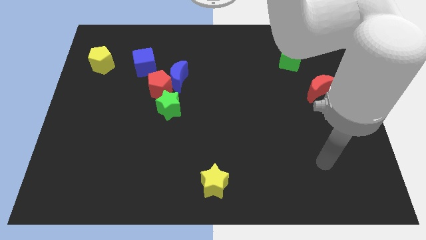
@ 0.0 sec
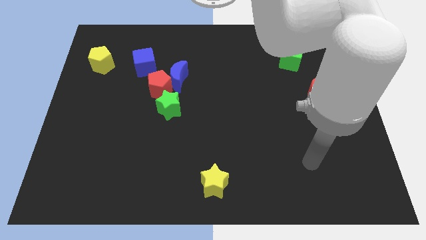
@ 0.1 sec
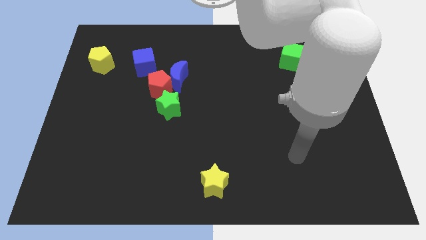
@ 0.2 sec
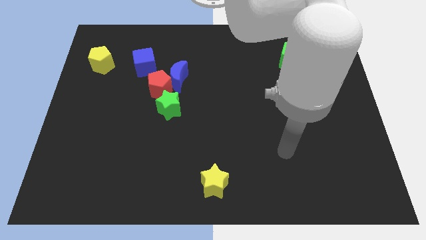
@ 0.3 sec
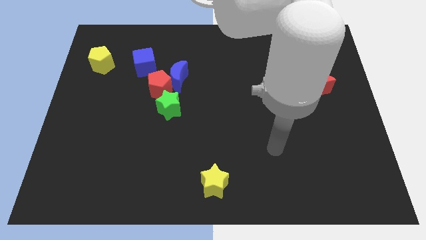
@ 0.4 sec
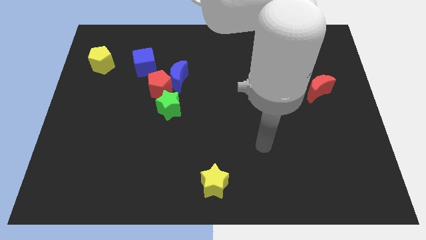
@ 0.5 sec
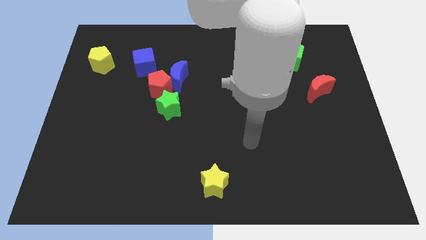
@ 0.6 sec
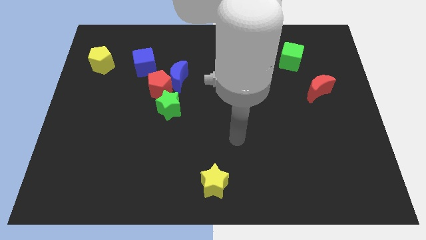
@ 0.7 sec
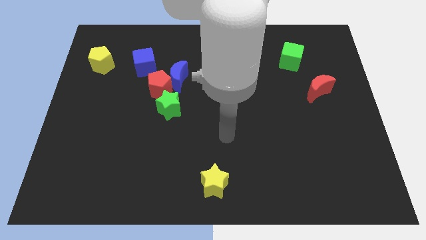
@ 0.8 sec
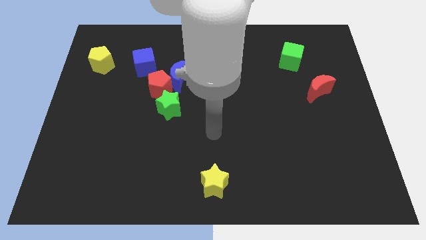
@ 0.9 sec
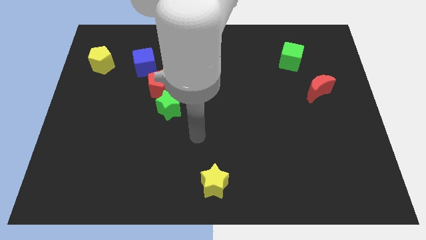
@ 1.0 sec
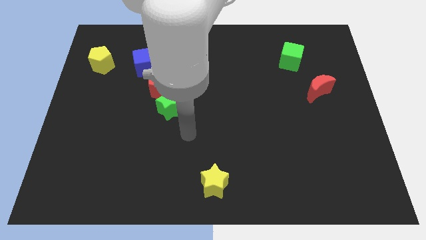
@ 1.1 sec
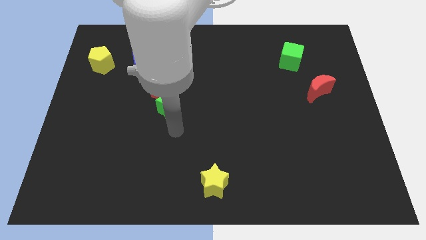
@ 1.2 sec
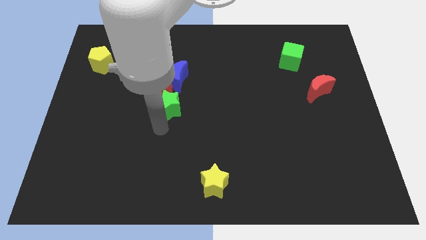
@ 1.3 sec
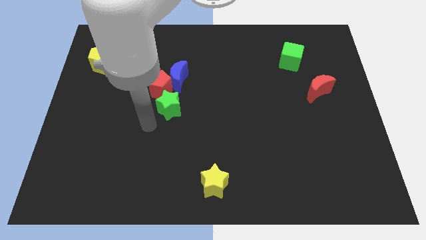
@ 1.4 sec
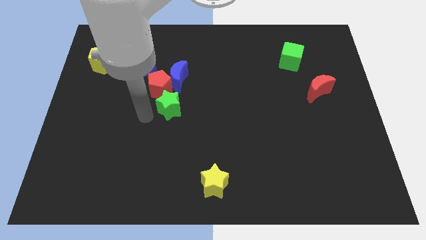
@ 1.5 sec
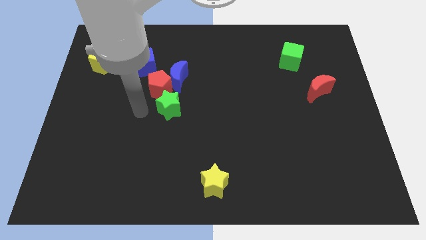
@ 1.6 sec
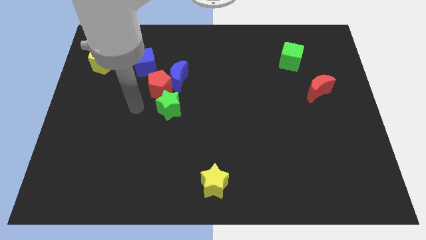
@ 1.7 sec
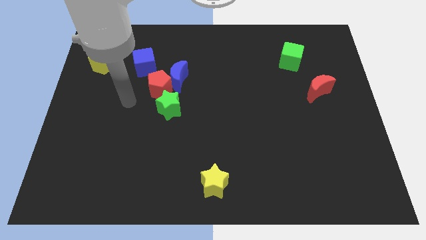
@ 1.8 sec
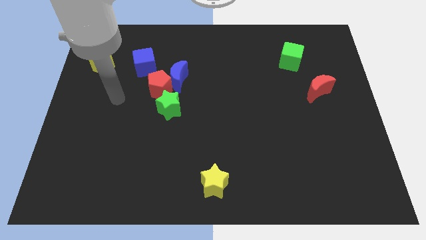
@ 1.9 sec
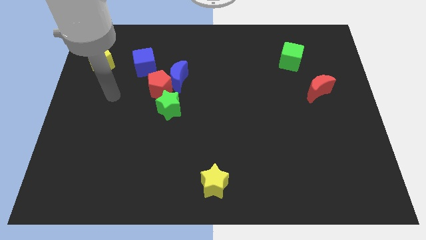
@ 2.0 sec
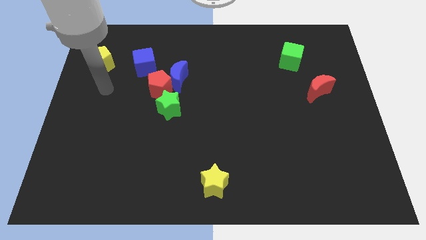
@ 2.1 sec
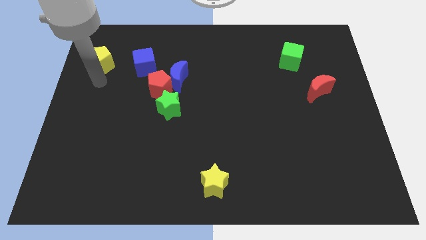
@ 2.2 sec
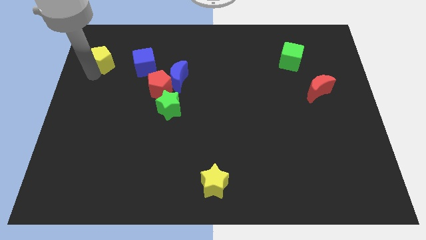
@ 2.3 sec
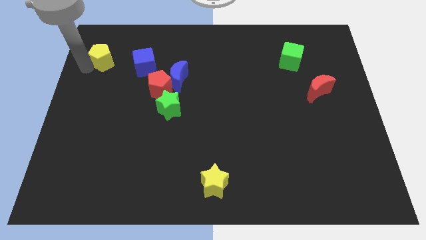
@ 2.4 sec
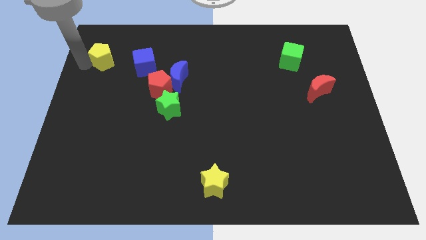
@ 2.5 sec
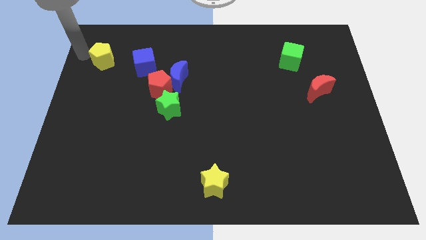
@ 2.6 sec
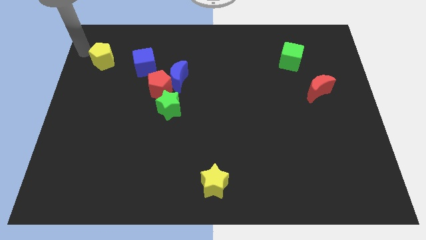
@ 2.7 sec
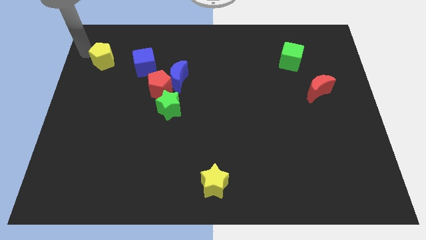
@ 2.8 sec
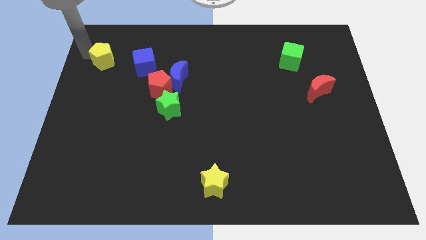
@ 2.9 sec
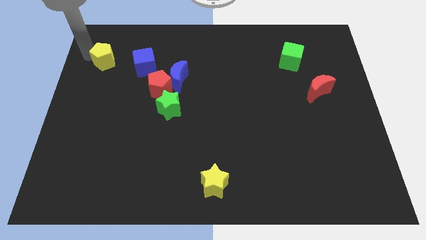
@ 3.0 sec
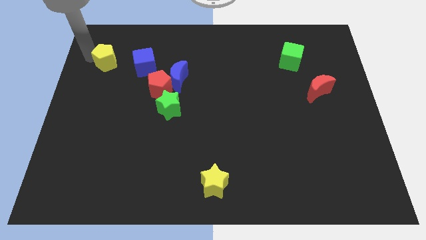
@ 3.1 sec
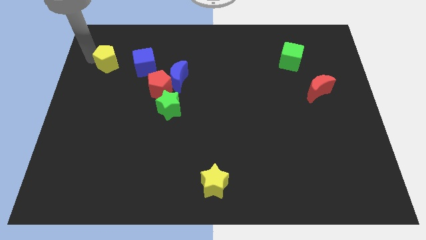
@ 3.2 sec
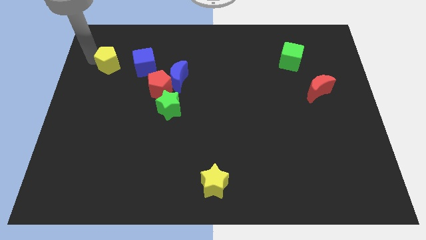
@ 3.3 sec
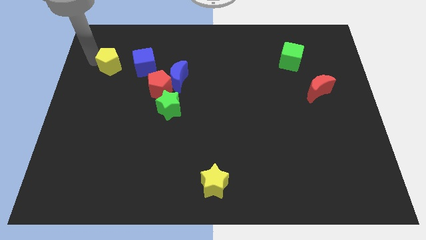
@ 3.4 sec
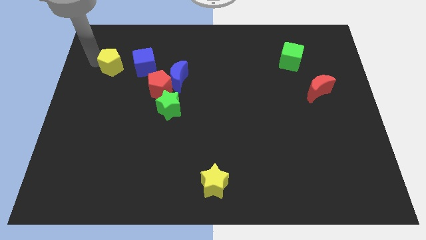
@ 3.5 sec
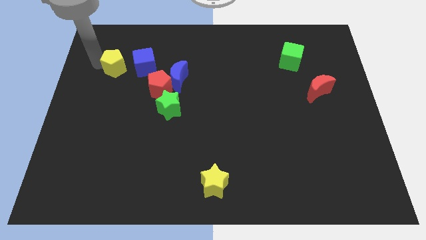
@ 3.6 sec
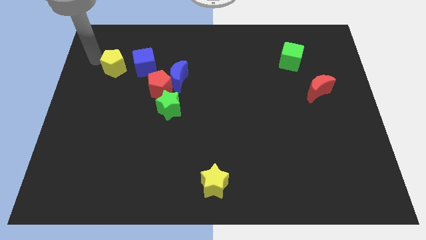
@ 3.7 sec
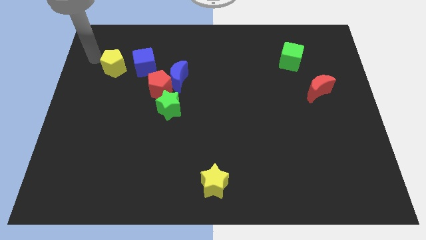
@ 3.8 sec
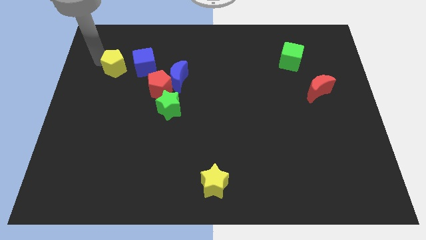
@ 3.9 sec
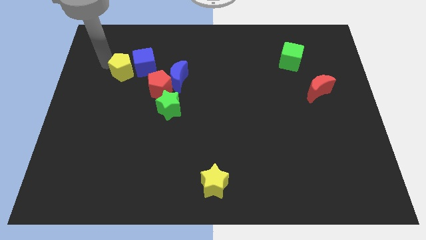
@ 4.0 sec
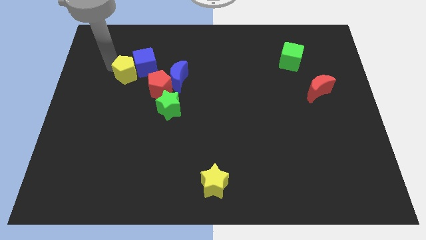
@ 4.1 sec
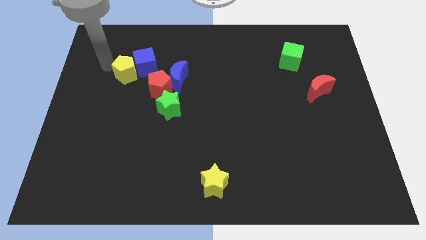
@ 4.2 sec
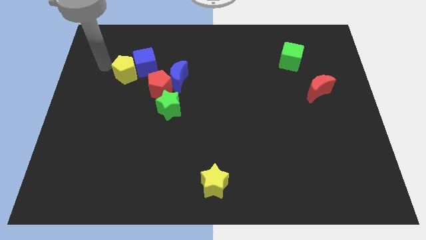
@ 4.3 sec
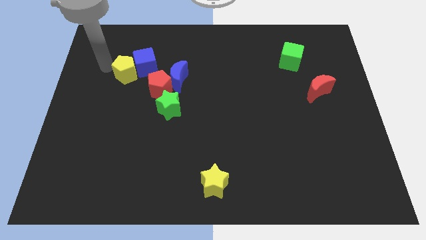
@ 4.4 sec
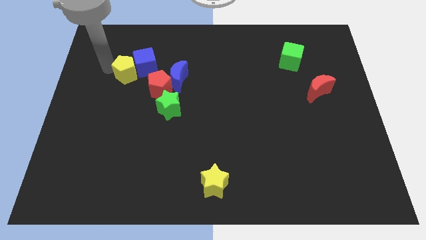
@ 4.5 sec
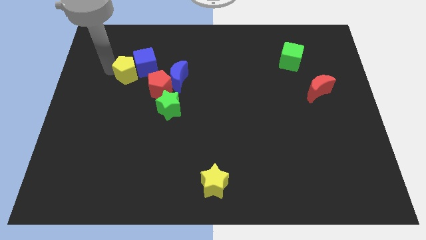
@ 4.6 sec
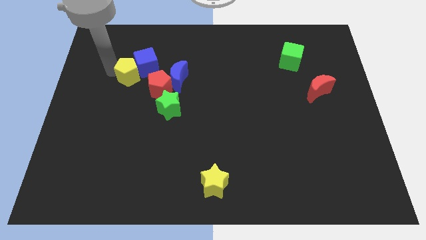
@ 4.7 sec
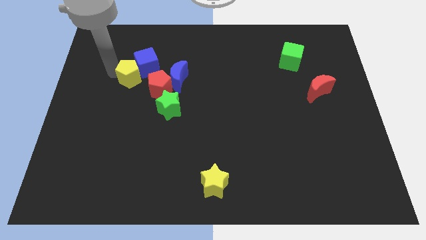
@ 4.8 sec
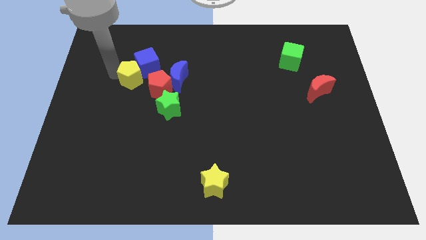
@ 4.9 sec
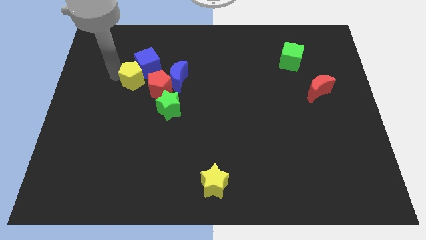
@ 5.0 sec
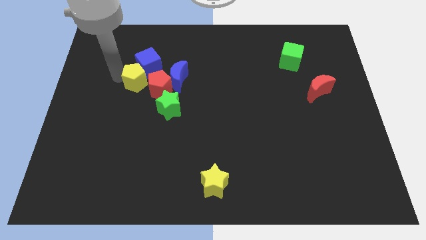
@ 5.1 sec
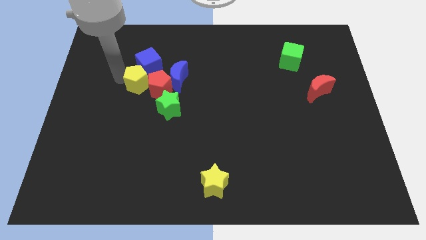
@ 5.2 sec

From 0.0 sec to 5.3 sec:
move the yellow pentagon next to the red pentagon

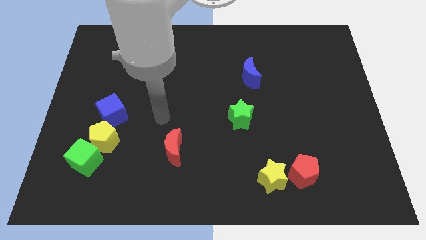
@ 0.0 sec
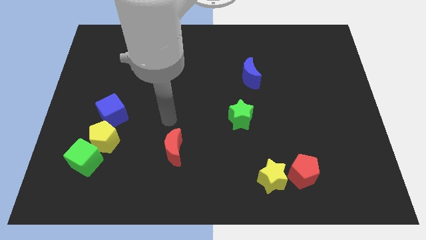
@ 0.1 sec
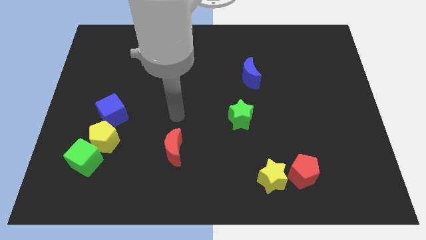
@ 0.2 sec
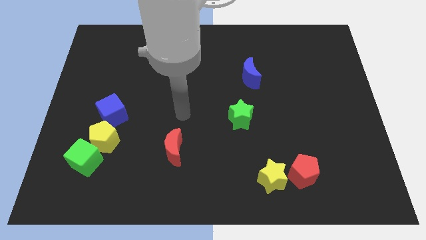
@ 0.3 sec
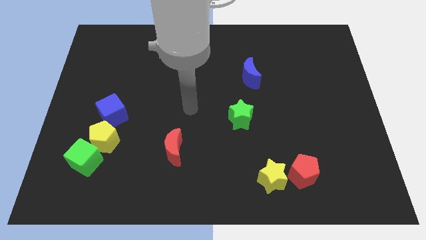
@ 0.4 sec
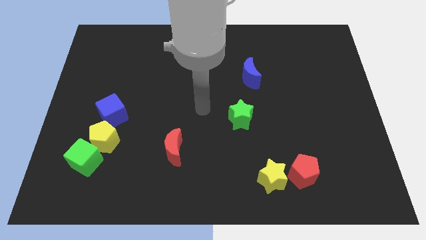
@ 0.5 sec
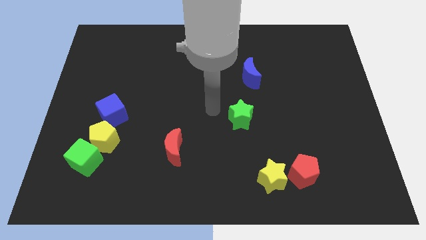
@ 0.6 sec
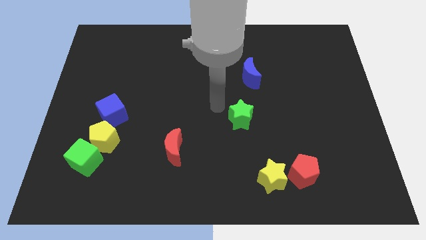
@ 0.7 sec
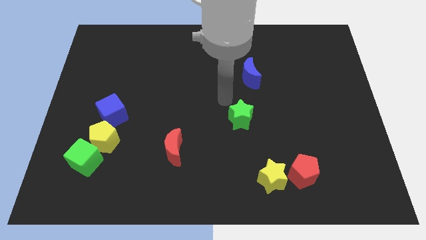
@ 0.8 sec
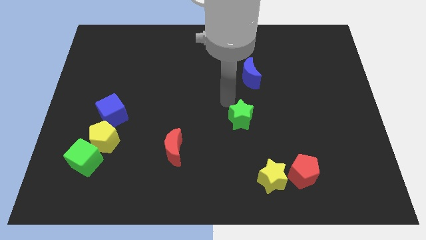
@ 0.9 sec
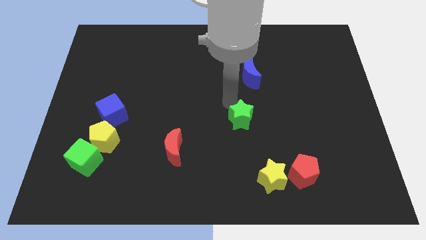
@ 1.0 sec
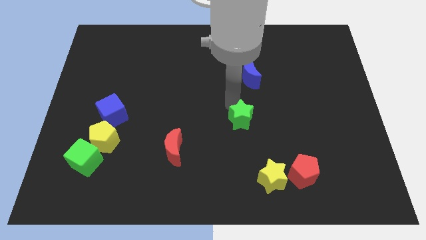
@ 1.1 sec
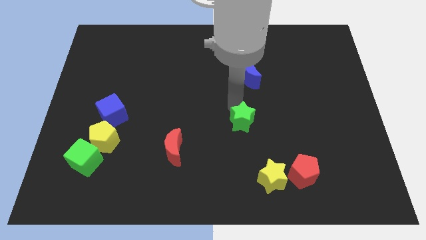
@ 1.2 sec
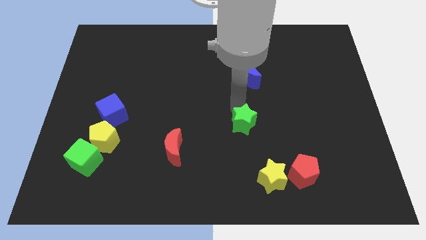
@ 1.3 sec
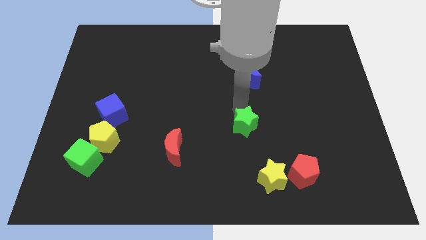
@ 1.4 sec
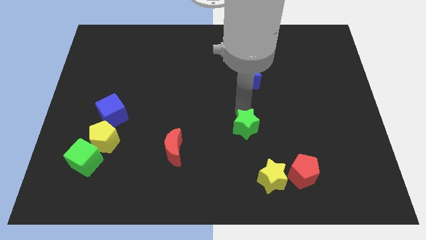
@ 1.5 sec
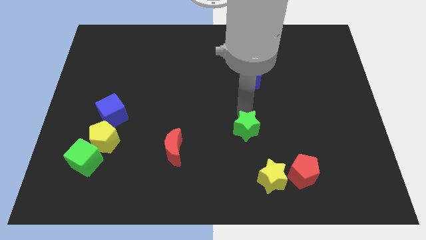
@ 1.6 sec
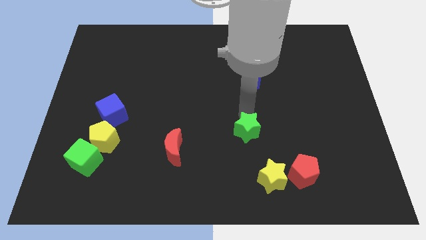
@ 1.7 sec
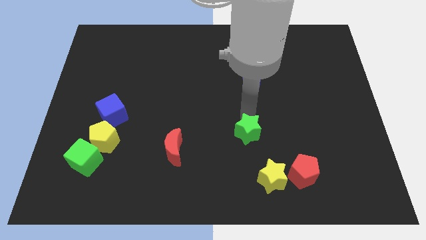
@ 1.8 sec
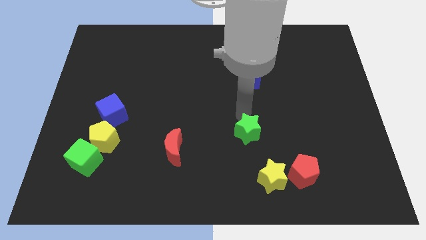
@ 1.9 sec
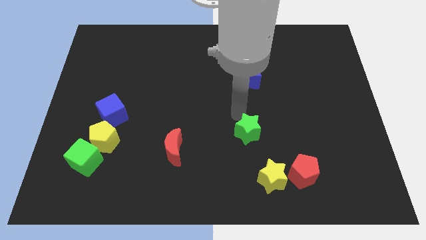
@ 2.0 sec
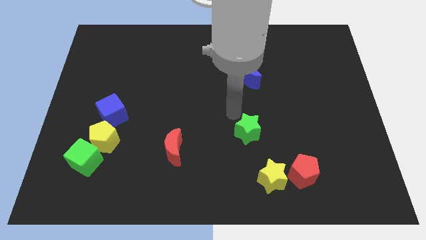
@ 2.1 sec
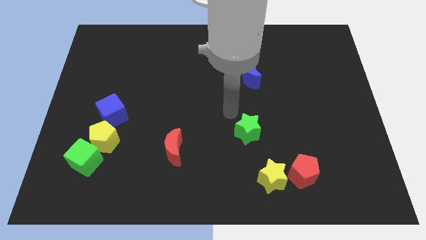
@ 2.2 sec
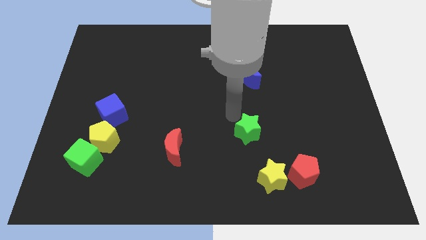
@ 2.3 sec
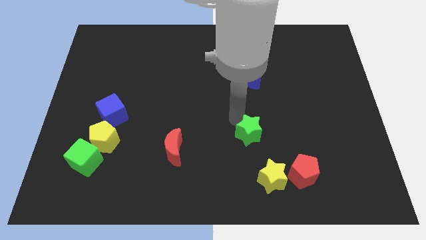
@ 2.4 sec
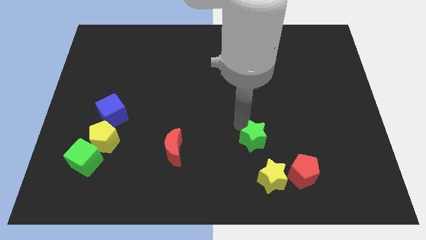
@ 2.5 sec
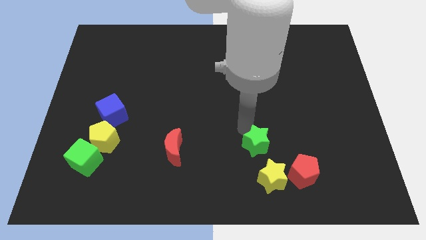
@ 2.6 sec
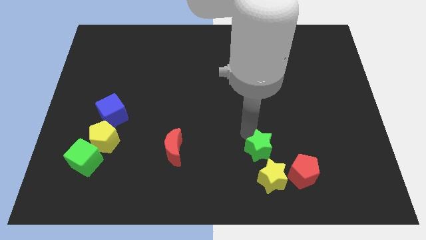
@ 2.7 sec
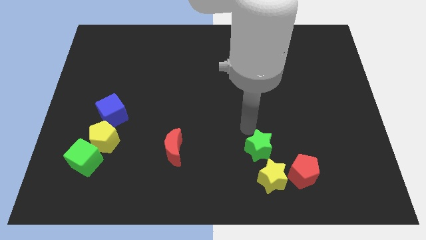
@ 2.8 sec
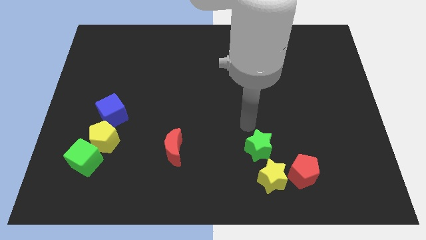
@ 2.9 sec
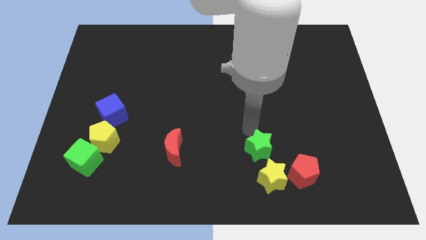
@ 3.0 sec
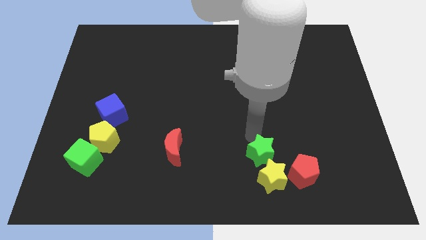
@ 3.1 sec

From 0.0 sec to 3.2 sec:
put the green star to the yellow star
